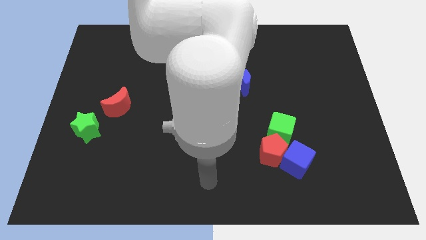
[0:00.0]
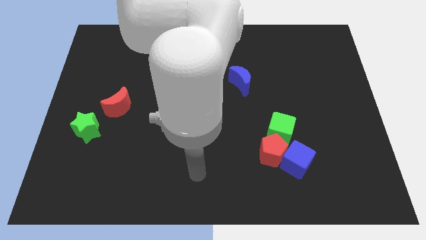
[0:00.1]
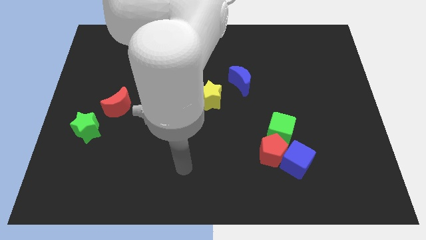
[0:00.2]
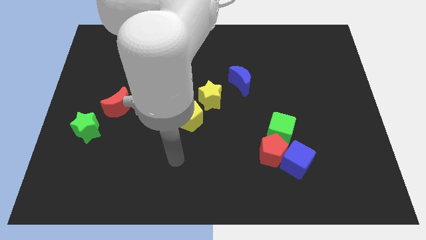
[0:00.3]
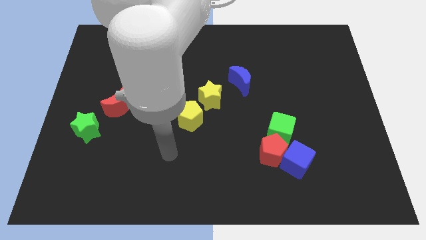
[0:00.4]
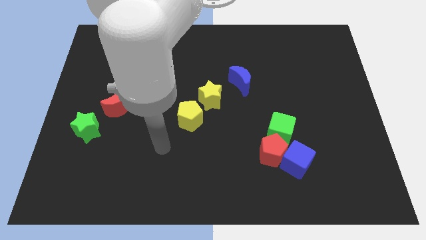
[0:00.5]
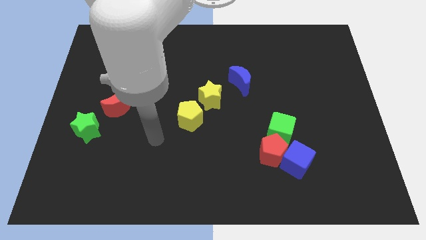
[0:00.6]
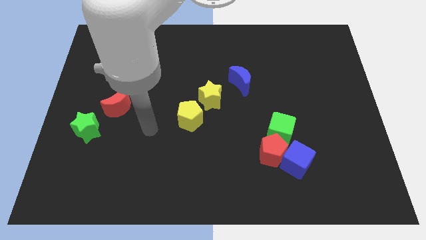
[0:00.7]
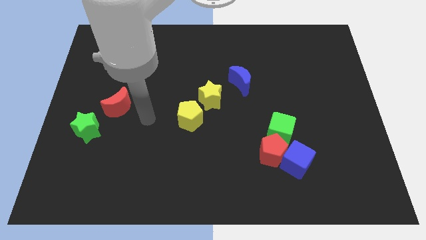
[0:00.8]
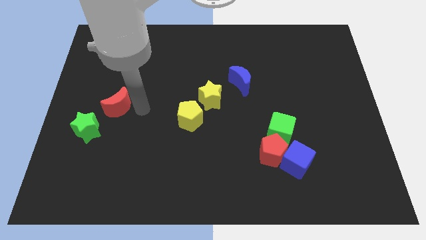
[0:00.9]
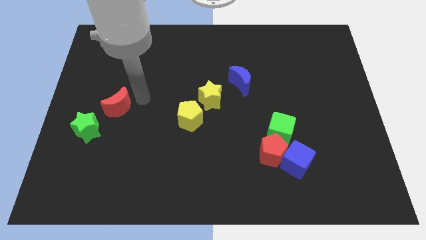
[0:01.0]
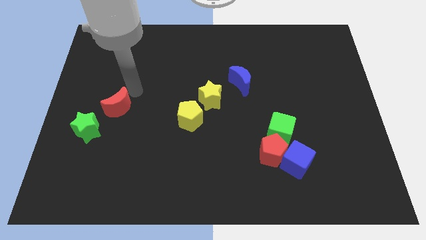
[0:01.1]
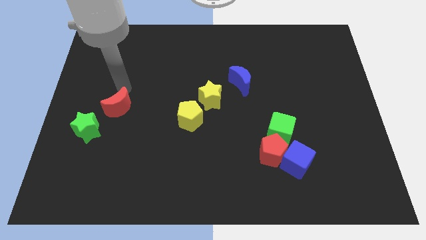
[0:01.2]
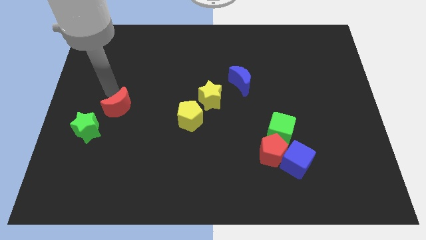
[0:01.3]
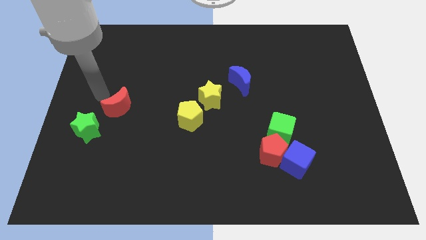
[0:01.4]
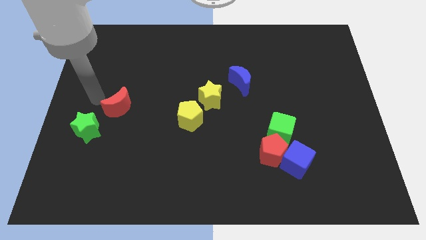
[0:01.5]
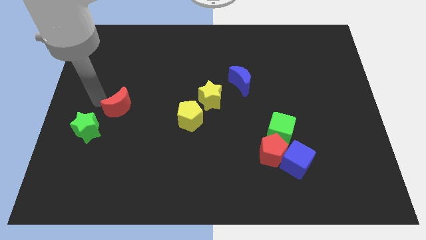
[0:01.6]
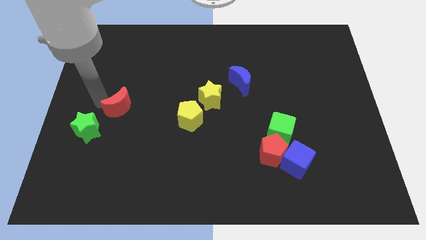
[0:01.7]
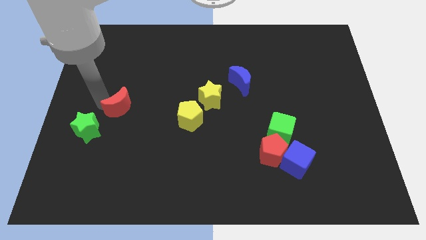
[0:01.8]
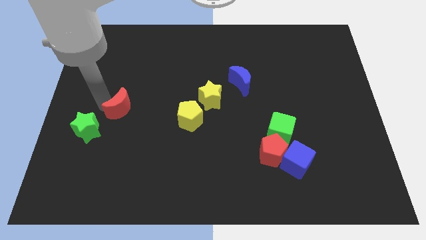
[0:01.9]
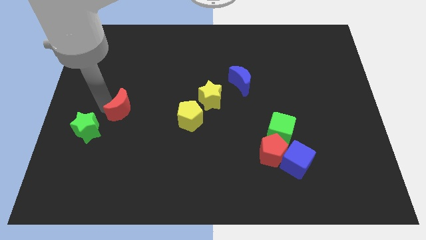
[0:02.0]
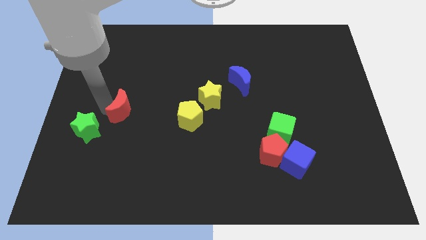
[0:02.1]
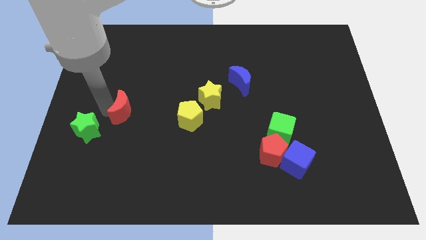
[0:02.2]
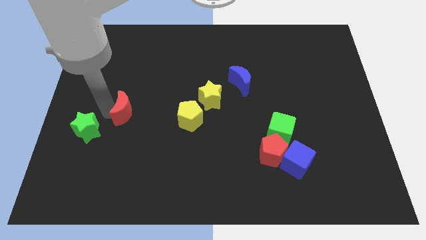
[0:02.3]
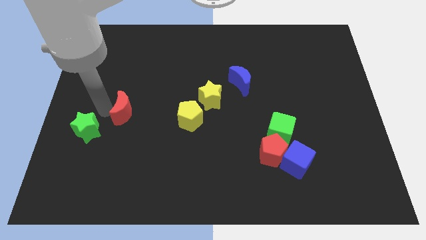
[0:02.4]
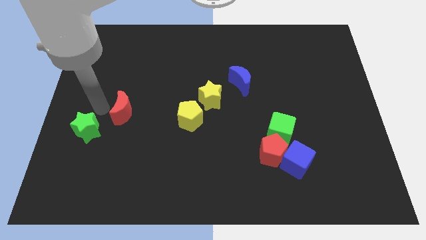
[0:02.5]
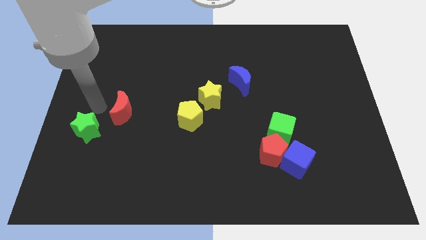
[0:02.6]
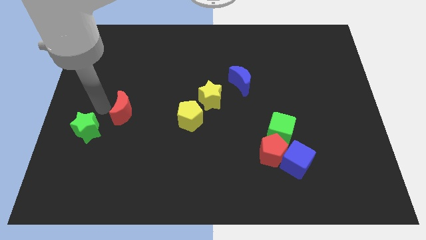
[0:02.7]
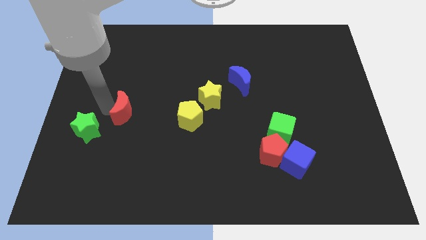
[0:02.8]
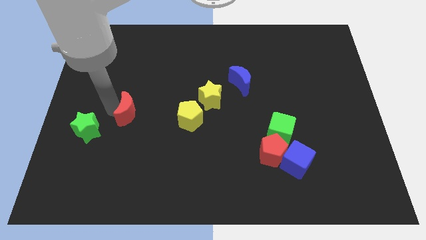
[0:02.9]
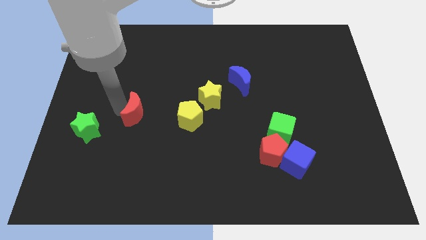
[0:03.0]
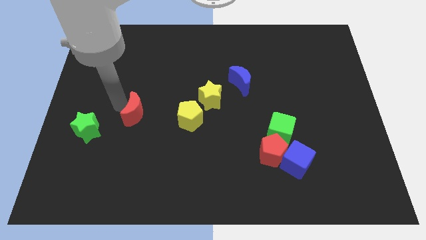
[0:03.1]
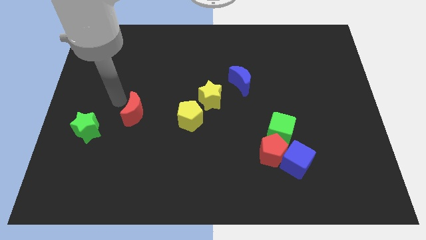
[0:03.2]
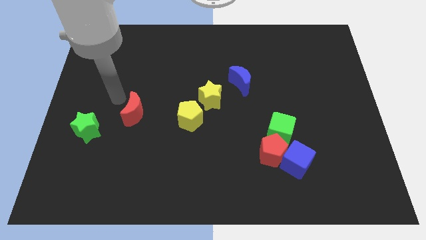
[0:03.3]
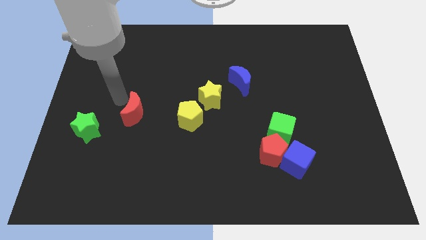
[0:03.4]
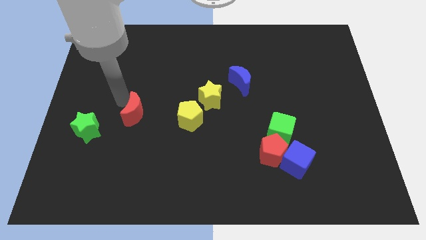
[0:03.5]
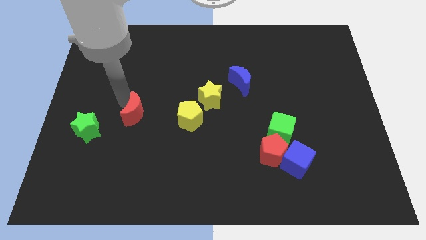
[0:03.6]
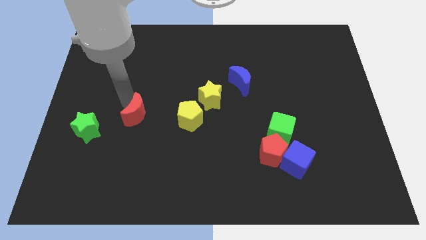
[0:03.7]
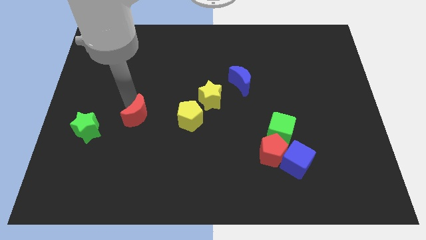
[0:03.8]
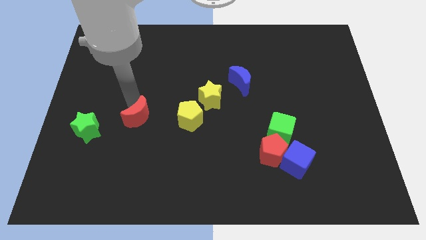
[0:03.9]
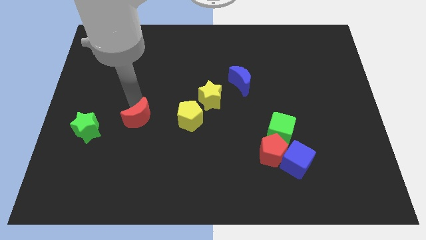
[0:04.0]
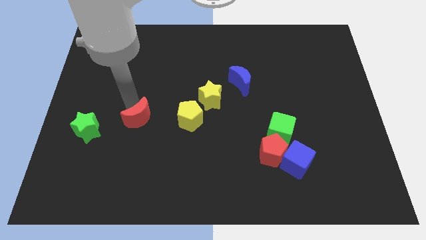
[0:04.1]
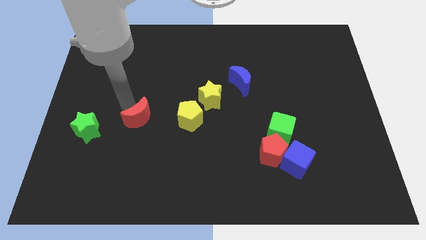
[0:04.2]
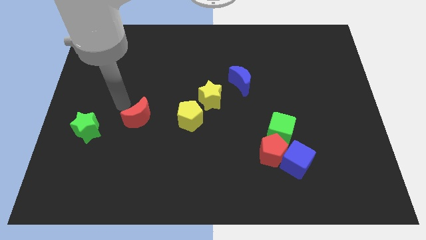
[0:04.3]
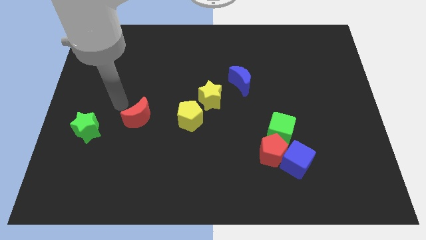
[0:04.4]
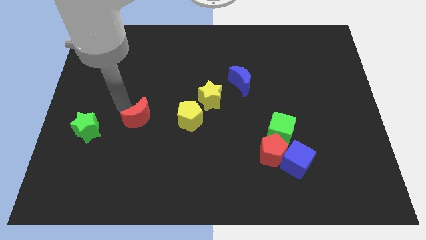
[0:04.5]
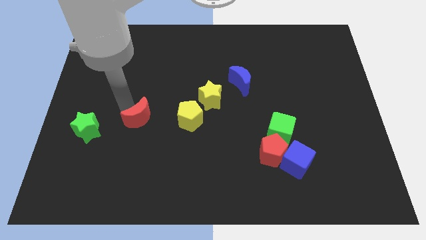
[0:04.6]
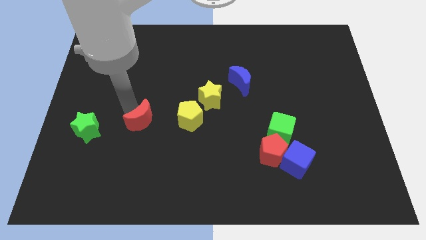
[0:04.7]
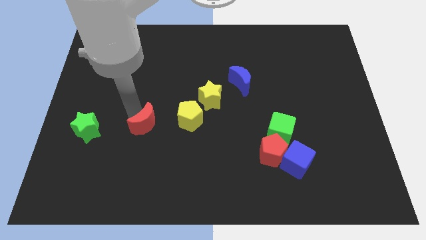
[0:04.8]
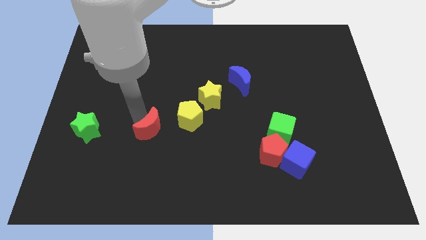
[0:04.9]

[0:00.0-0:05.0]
move the red moon to the bottom left of the yellow pentagon

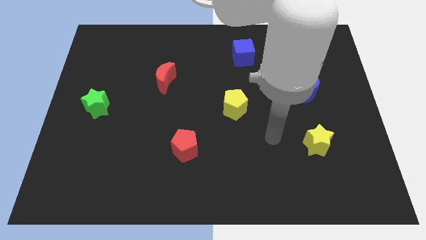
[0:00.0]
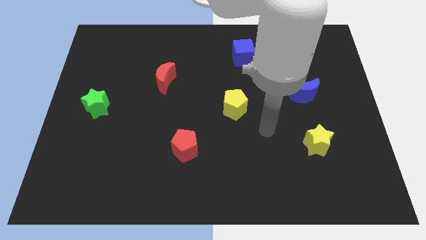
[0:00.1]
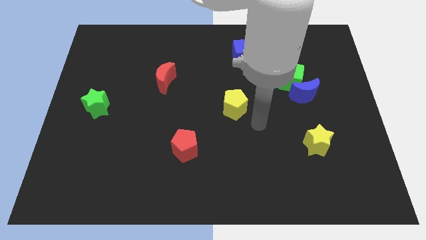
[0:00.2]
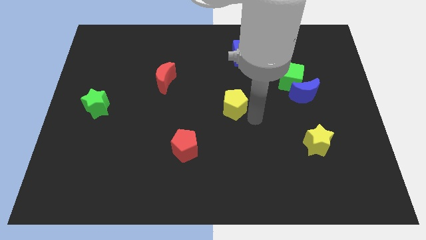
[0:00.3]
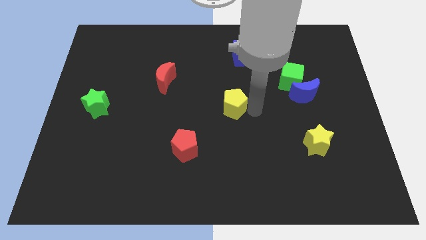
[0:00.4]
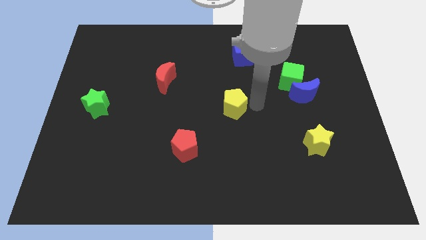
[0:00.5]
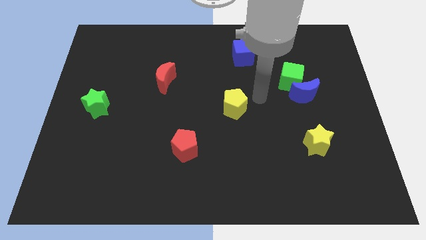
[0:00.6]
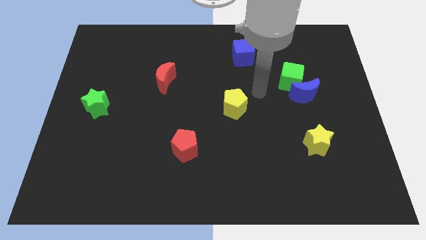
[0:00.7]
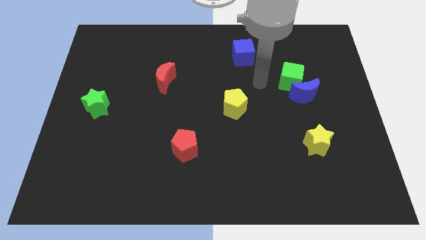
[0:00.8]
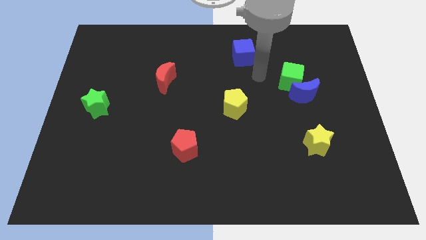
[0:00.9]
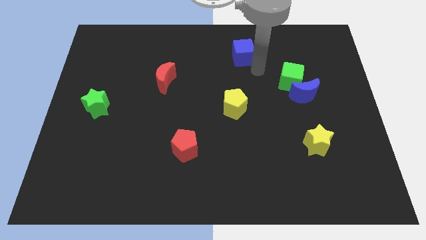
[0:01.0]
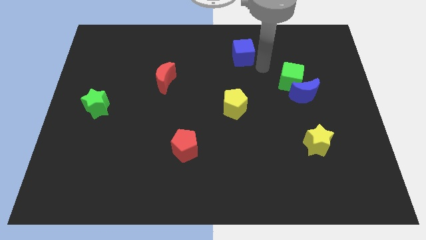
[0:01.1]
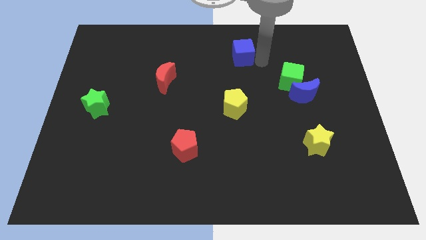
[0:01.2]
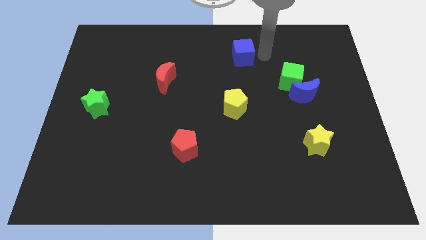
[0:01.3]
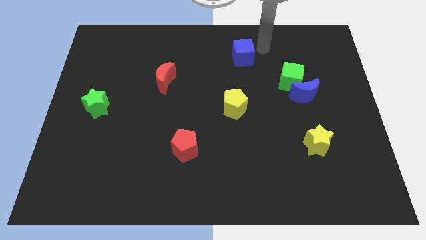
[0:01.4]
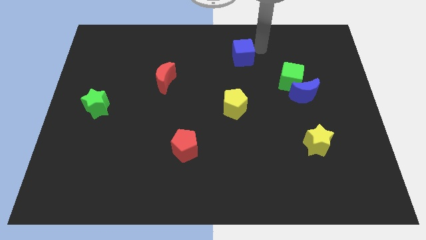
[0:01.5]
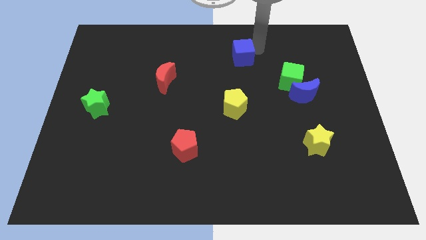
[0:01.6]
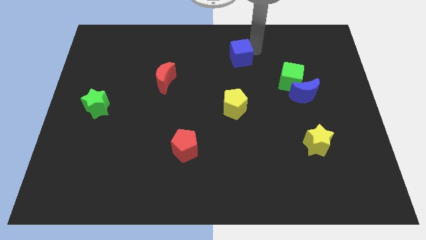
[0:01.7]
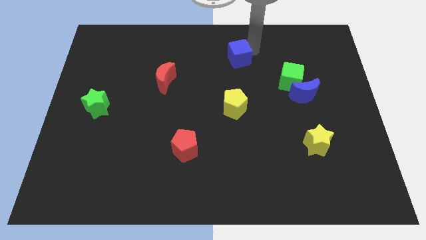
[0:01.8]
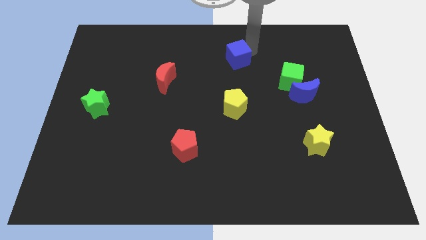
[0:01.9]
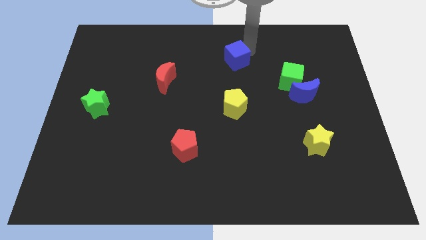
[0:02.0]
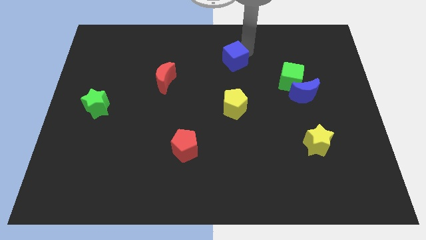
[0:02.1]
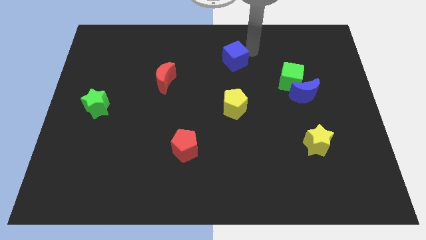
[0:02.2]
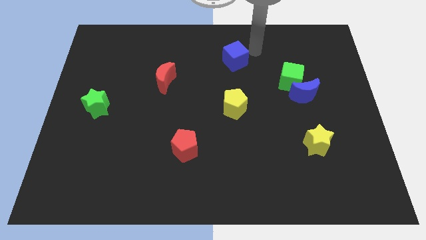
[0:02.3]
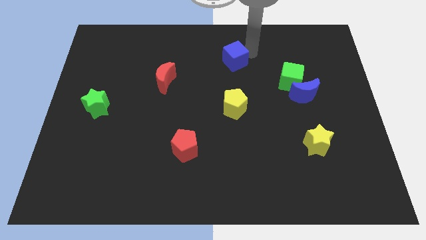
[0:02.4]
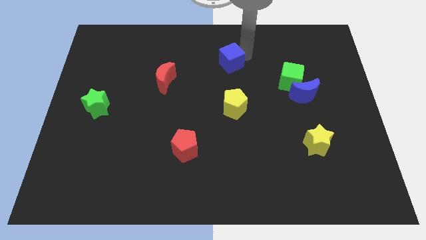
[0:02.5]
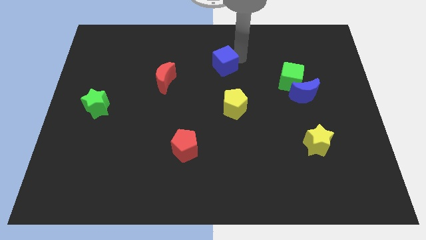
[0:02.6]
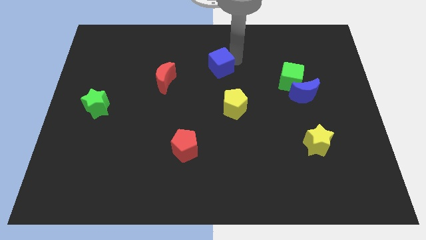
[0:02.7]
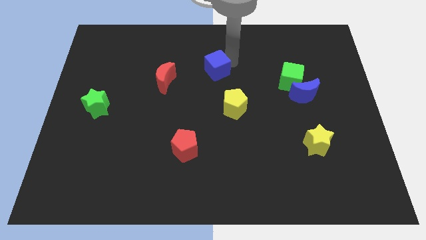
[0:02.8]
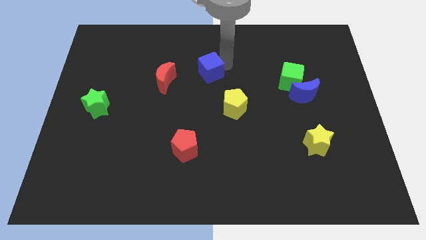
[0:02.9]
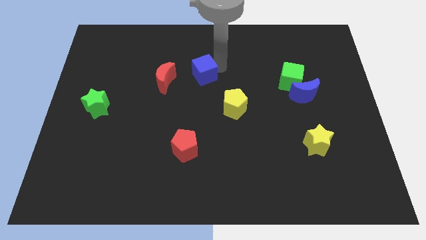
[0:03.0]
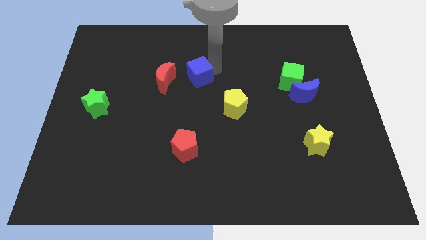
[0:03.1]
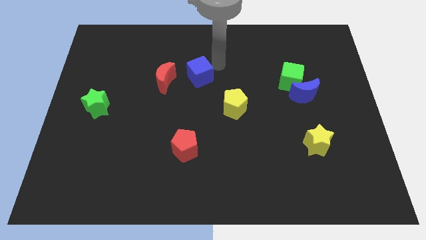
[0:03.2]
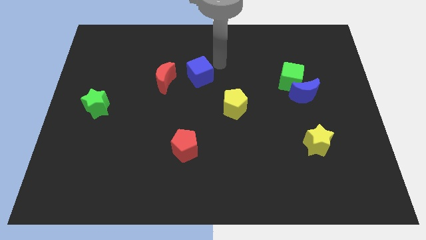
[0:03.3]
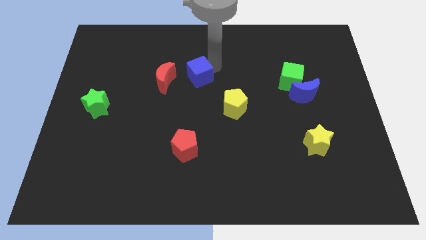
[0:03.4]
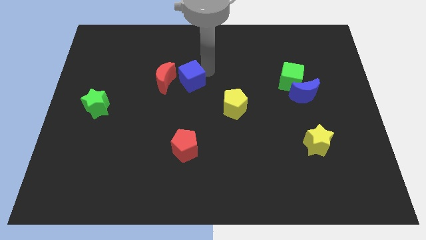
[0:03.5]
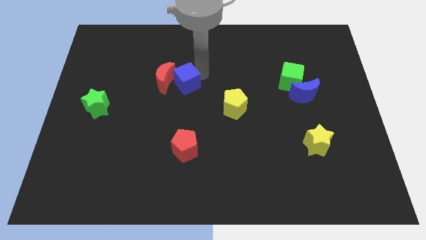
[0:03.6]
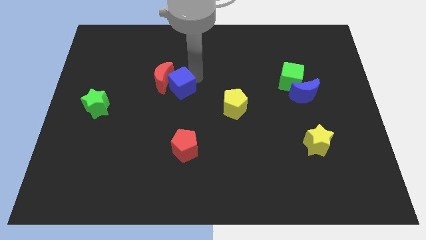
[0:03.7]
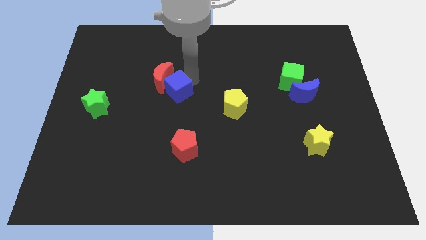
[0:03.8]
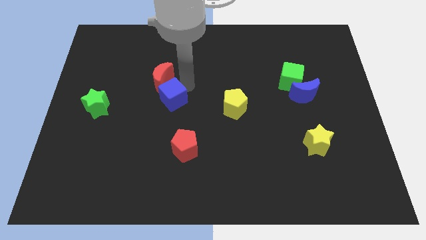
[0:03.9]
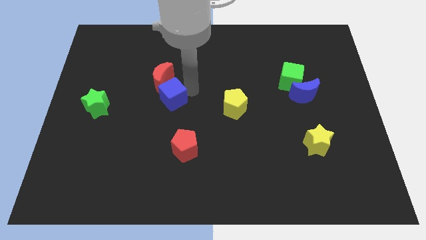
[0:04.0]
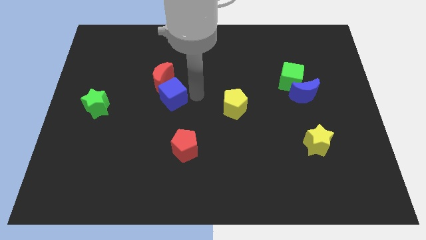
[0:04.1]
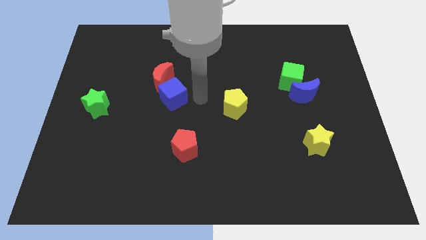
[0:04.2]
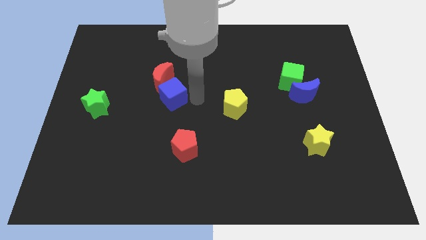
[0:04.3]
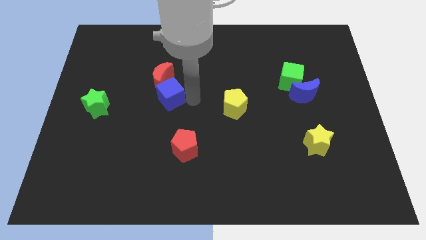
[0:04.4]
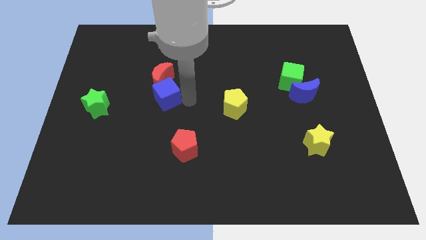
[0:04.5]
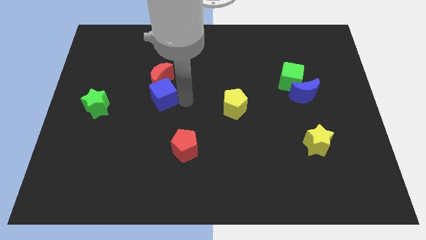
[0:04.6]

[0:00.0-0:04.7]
move the blue cube to the bottom left side of the red moon
